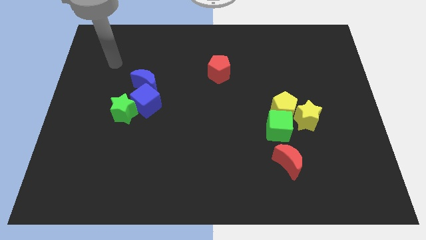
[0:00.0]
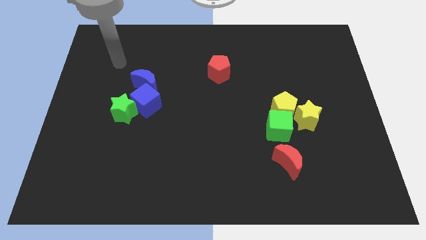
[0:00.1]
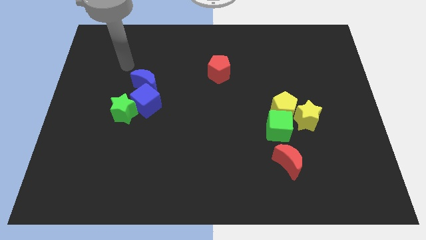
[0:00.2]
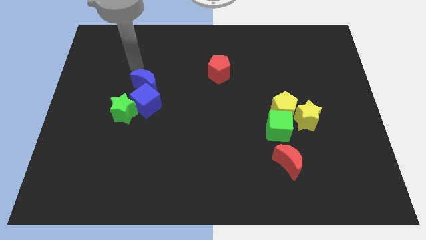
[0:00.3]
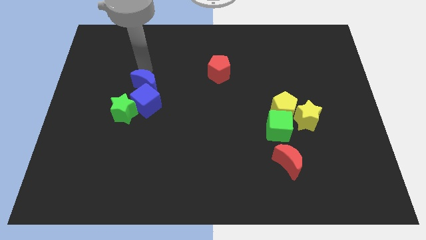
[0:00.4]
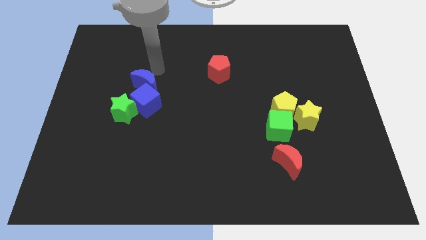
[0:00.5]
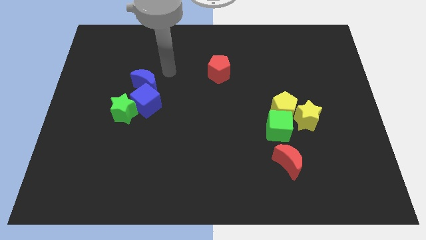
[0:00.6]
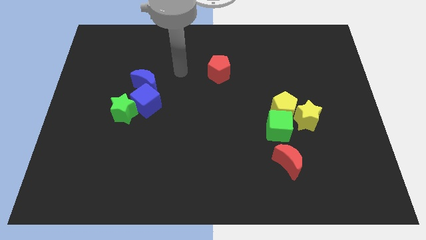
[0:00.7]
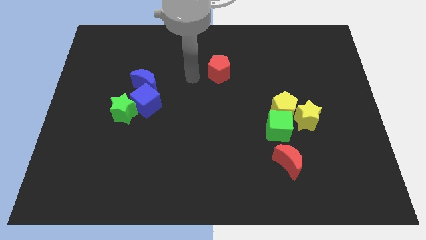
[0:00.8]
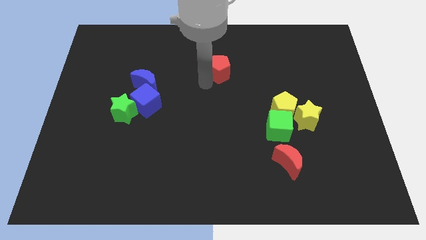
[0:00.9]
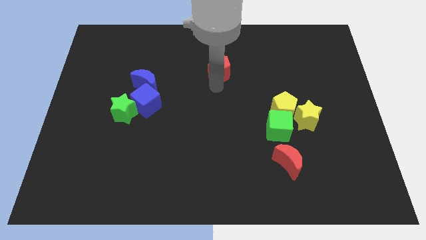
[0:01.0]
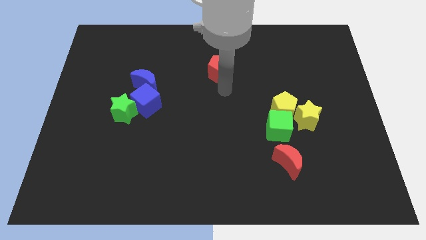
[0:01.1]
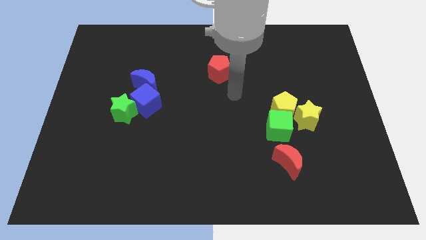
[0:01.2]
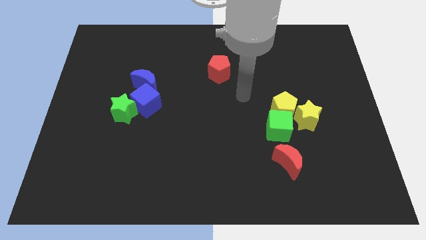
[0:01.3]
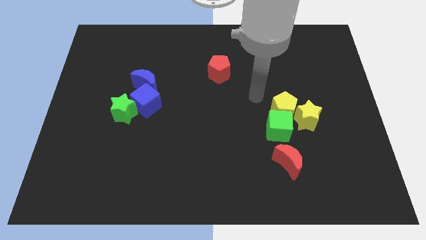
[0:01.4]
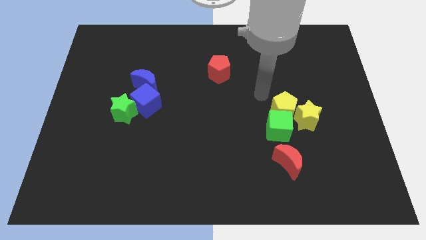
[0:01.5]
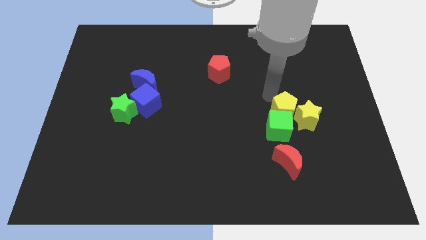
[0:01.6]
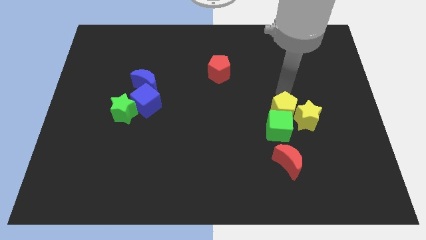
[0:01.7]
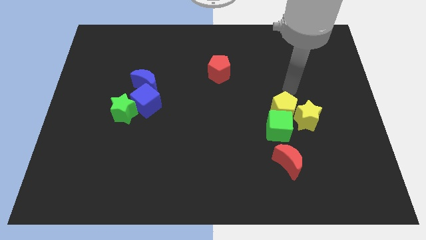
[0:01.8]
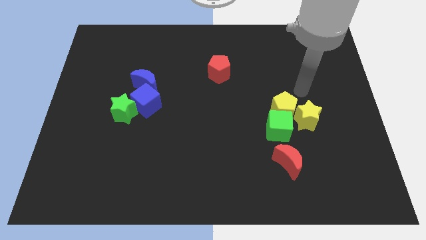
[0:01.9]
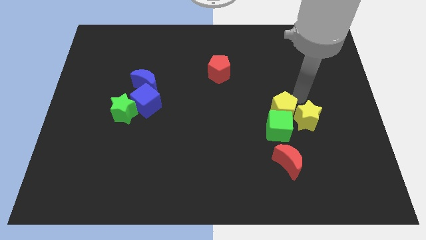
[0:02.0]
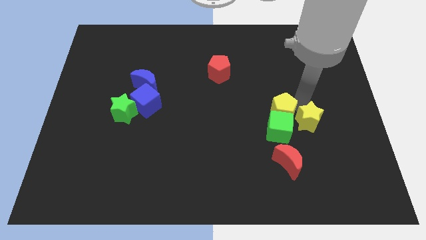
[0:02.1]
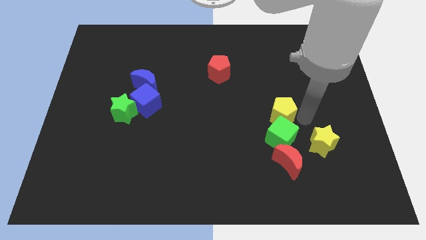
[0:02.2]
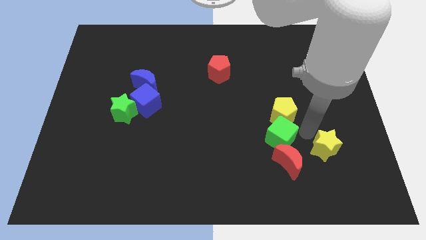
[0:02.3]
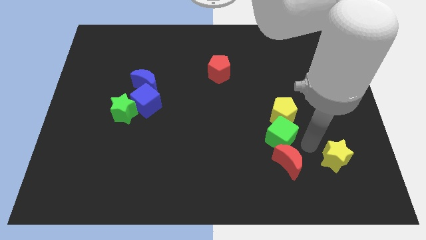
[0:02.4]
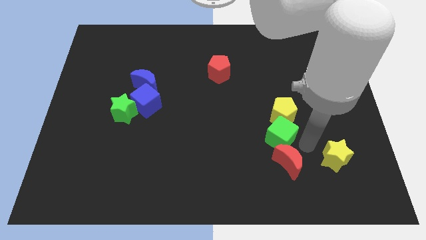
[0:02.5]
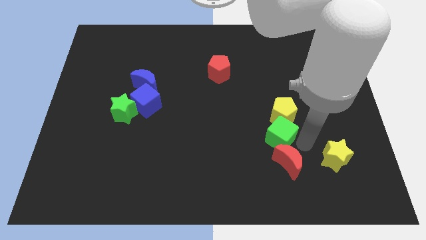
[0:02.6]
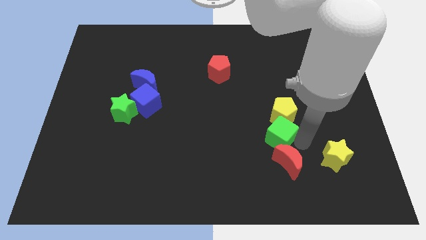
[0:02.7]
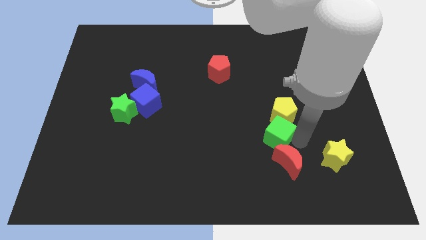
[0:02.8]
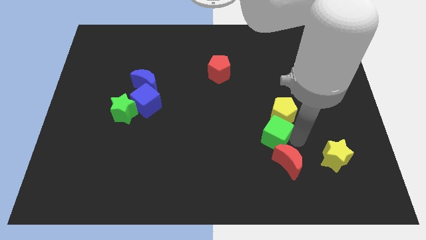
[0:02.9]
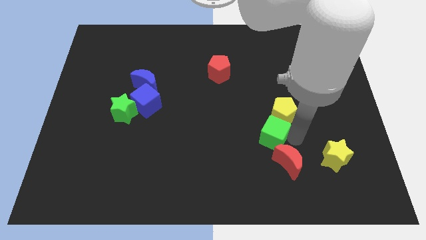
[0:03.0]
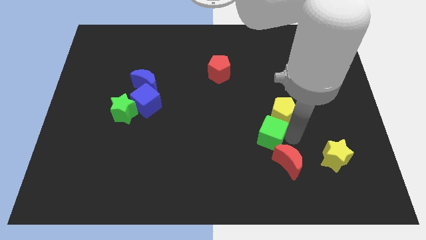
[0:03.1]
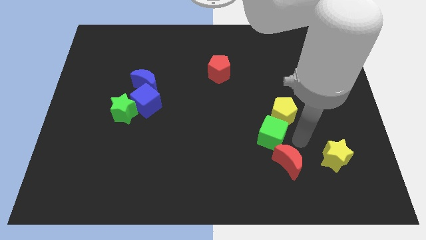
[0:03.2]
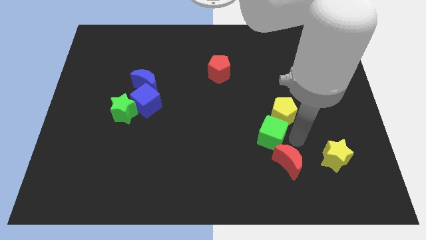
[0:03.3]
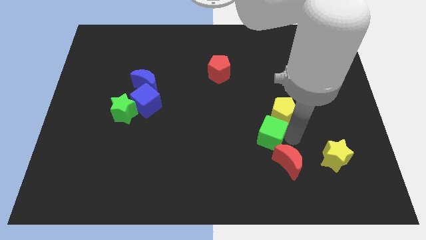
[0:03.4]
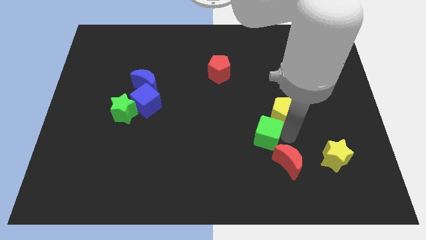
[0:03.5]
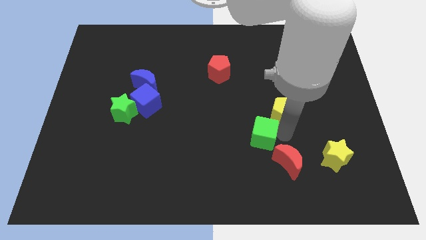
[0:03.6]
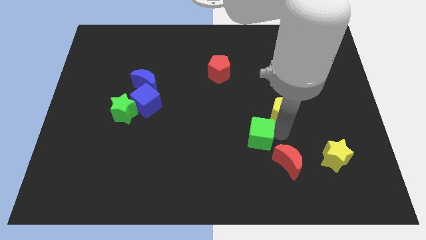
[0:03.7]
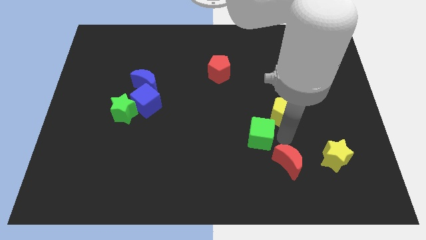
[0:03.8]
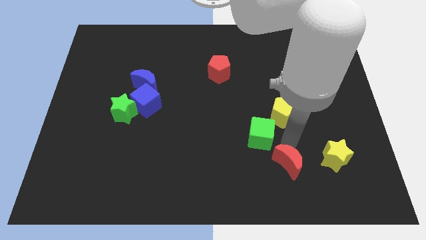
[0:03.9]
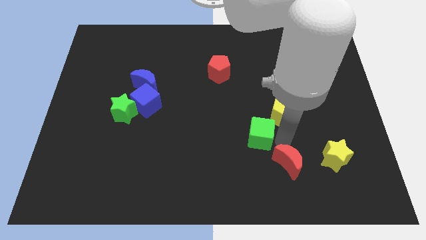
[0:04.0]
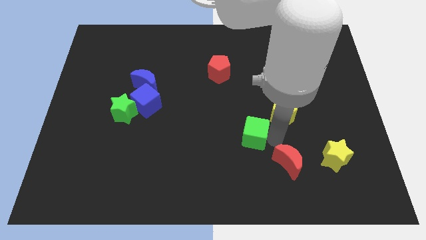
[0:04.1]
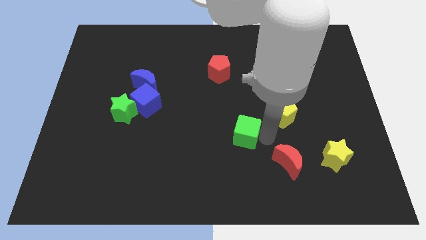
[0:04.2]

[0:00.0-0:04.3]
push the green cube to the left somewhat

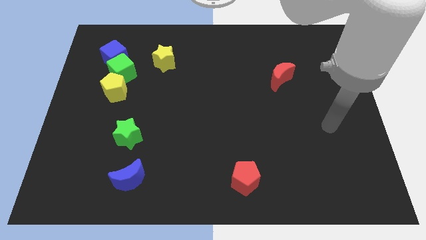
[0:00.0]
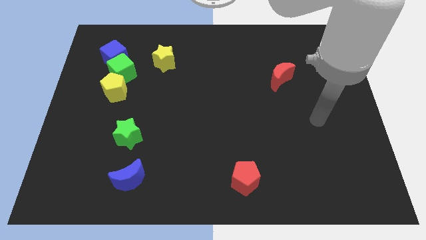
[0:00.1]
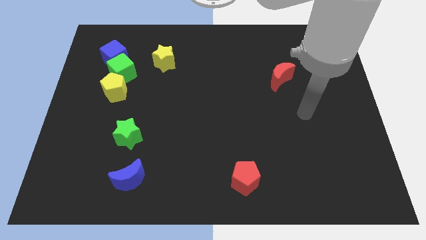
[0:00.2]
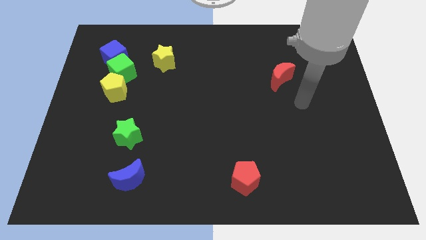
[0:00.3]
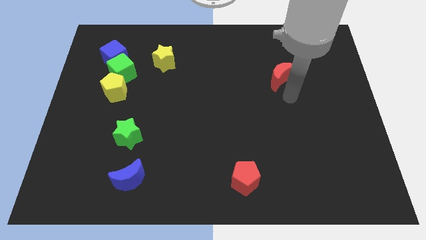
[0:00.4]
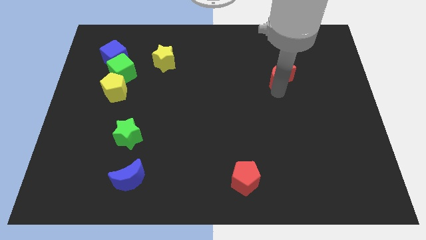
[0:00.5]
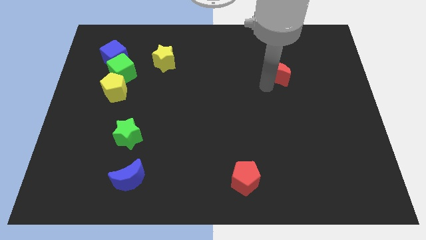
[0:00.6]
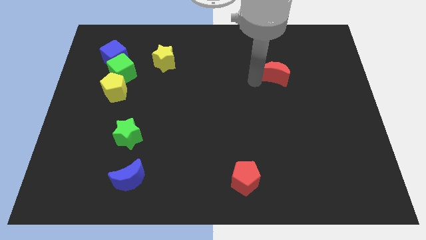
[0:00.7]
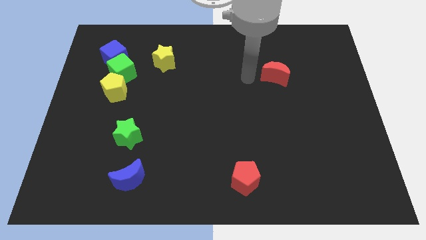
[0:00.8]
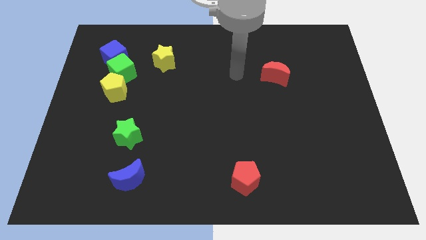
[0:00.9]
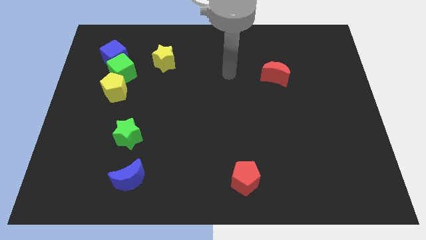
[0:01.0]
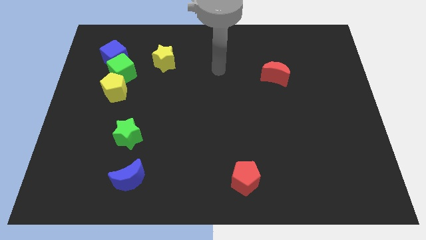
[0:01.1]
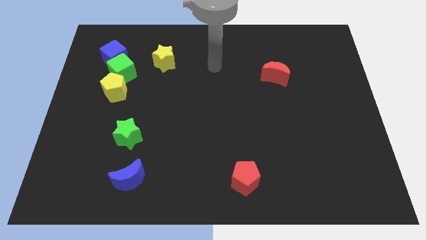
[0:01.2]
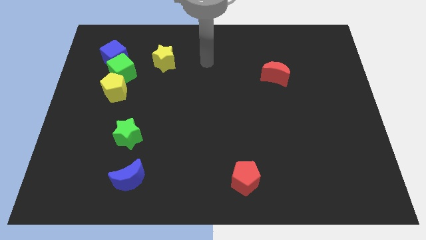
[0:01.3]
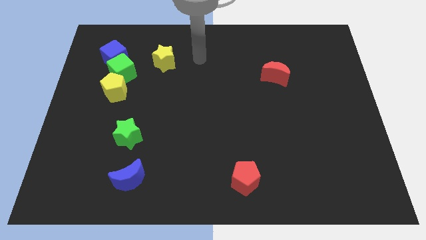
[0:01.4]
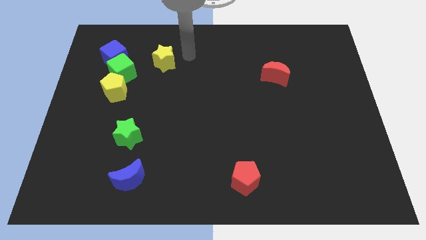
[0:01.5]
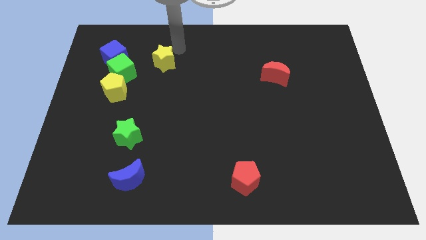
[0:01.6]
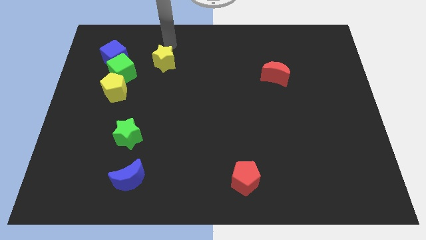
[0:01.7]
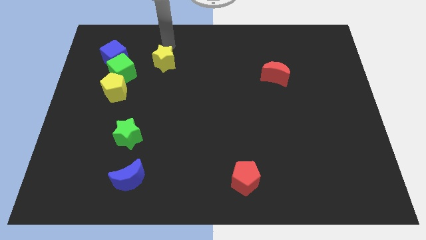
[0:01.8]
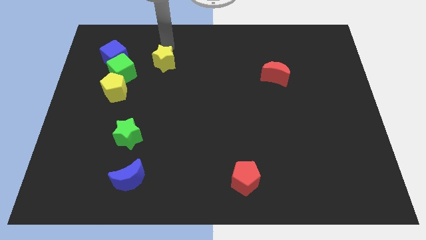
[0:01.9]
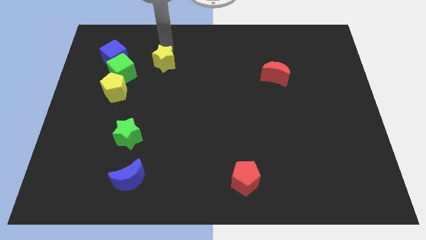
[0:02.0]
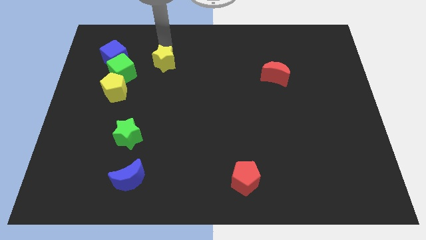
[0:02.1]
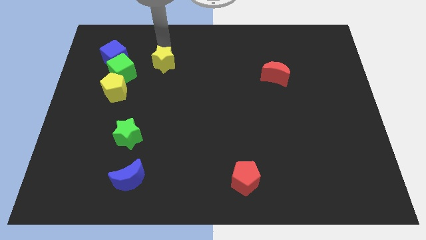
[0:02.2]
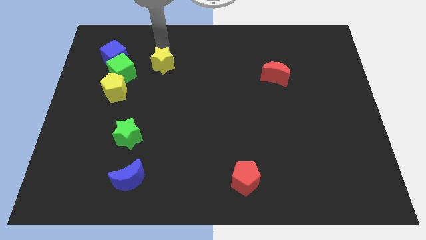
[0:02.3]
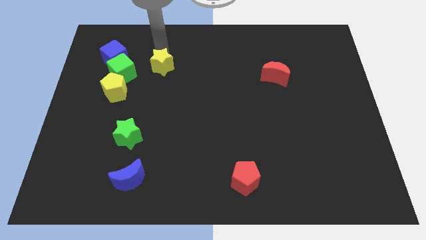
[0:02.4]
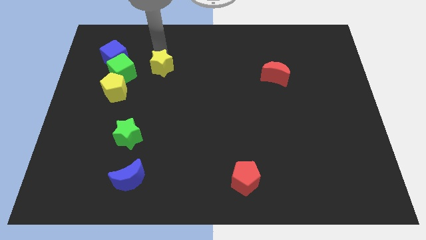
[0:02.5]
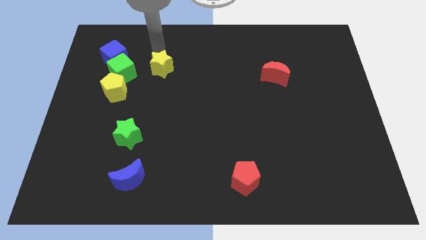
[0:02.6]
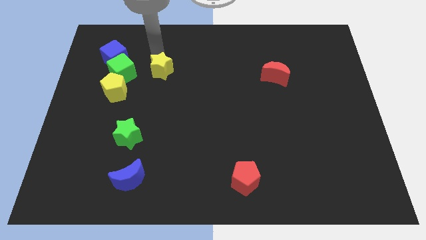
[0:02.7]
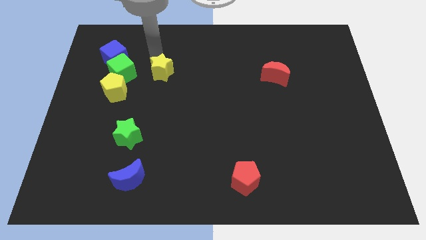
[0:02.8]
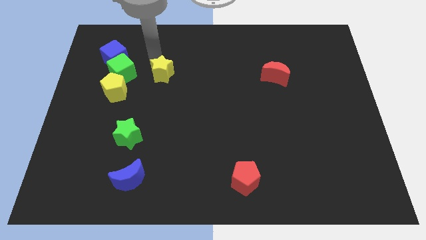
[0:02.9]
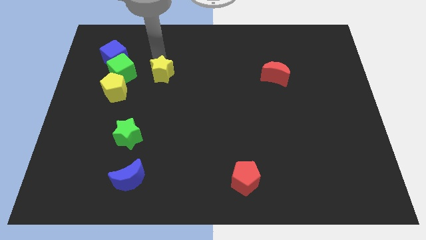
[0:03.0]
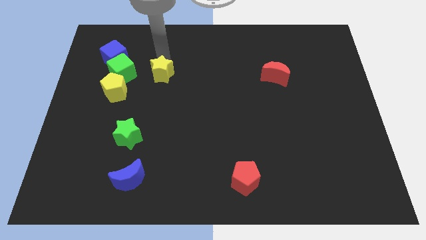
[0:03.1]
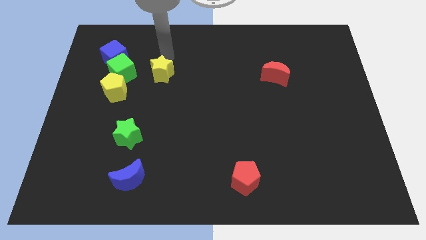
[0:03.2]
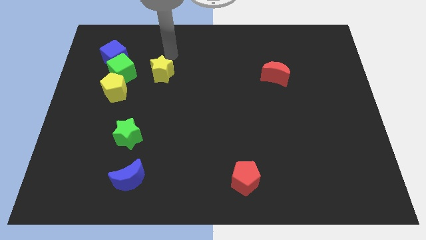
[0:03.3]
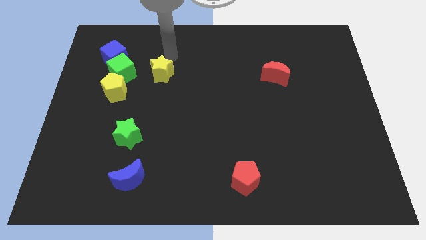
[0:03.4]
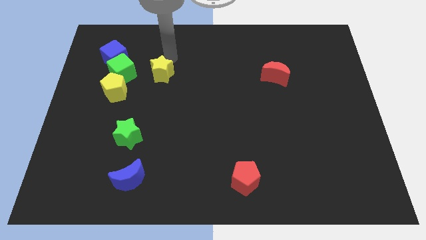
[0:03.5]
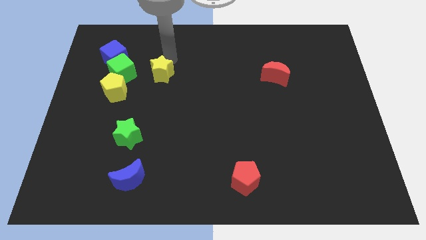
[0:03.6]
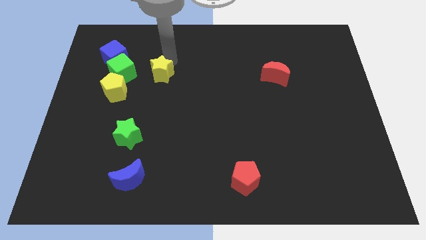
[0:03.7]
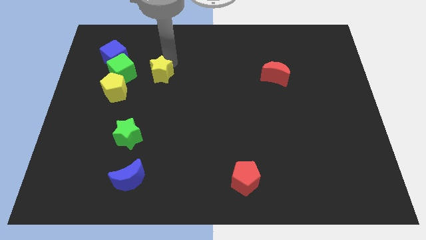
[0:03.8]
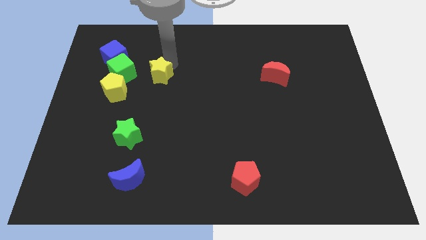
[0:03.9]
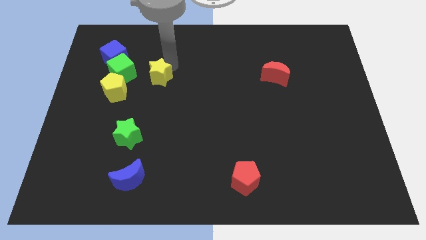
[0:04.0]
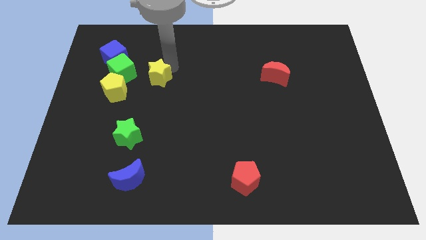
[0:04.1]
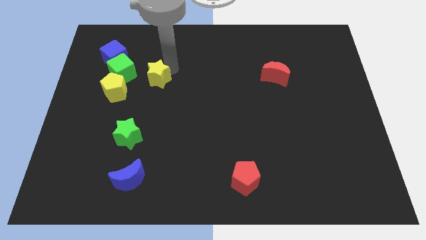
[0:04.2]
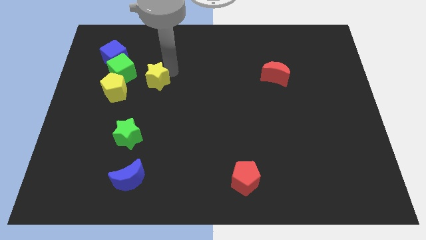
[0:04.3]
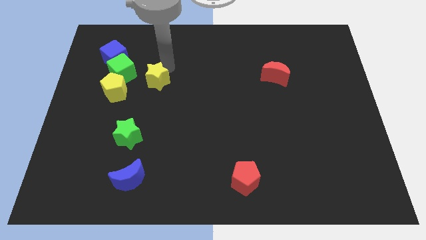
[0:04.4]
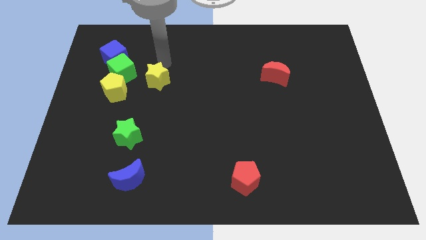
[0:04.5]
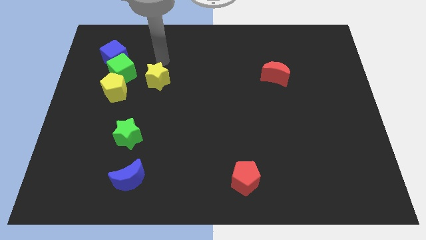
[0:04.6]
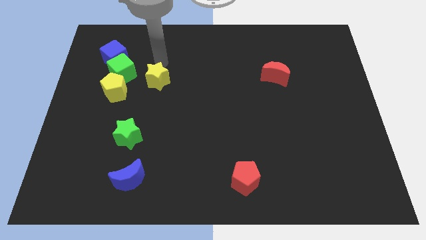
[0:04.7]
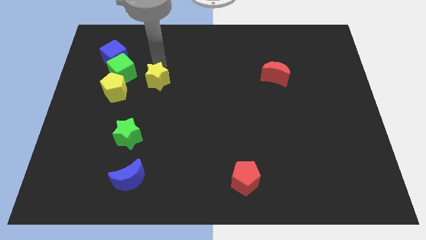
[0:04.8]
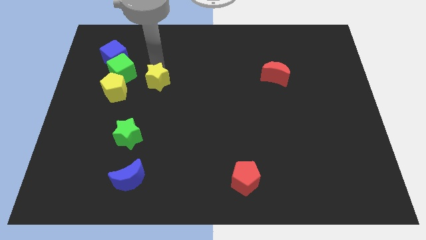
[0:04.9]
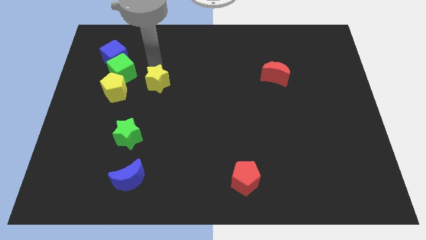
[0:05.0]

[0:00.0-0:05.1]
push the yellow star a little down
